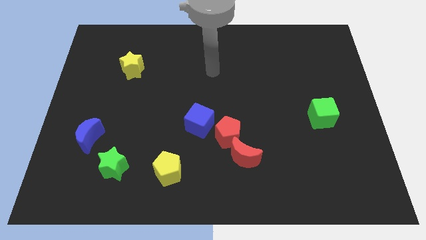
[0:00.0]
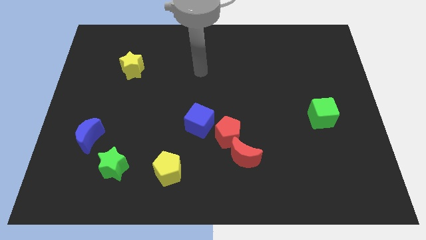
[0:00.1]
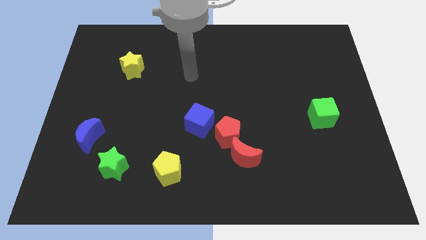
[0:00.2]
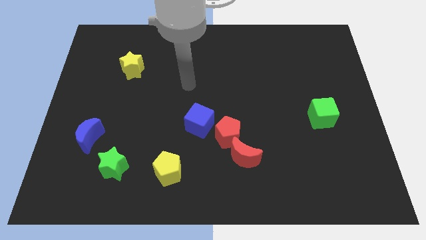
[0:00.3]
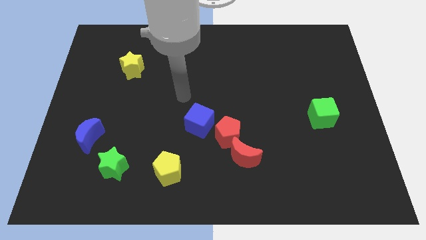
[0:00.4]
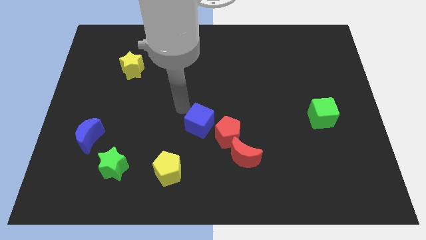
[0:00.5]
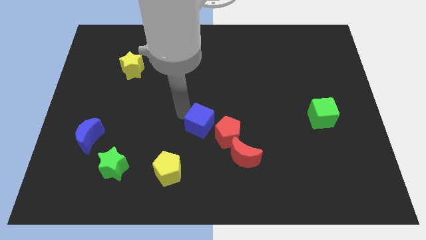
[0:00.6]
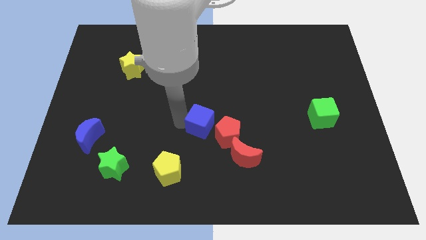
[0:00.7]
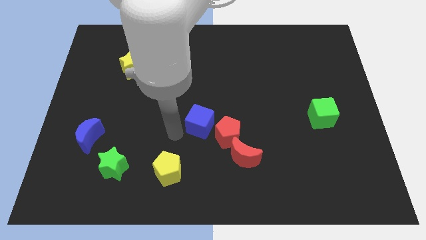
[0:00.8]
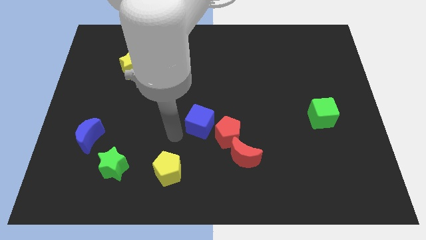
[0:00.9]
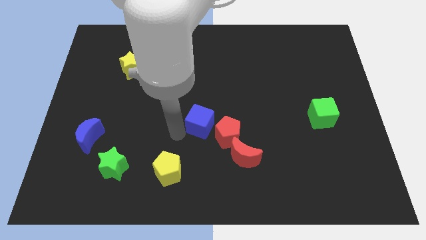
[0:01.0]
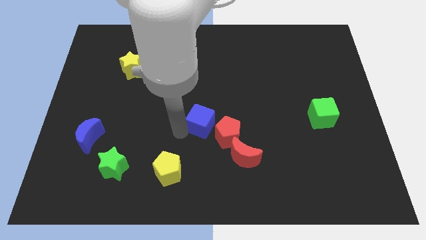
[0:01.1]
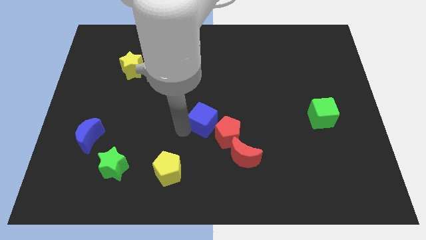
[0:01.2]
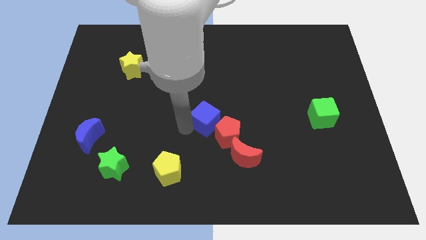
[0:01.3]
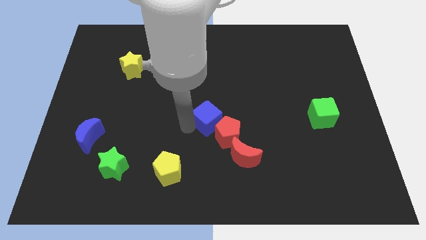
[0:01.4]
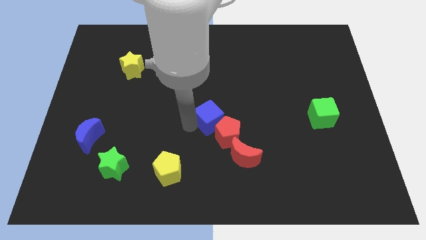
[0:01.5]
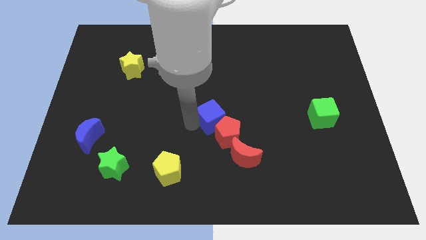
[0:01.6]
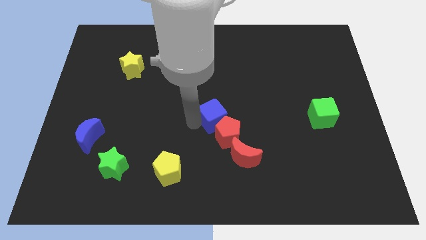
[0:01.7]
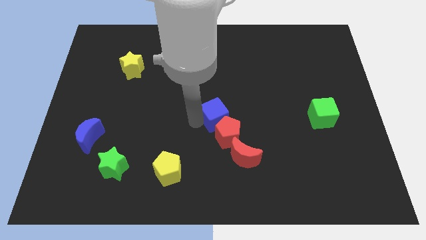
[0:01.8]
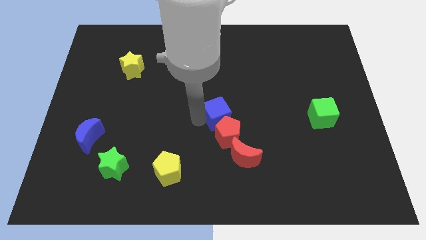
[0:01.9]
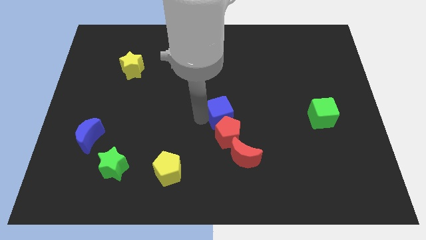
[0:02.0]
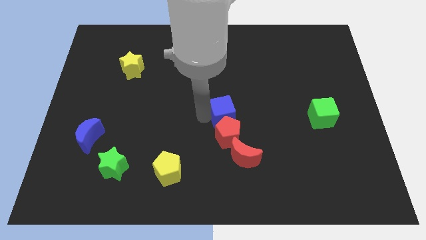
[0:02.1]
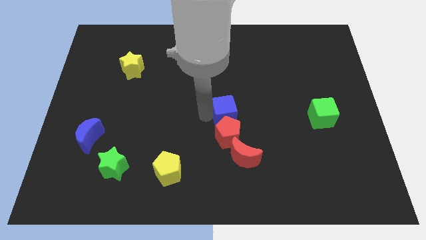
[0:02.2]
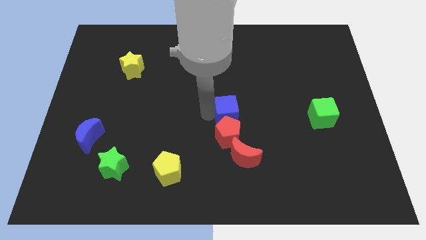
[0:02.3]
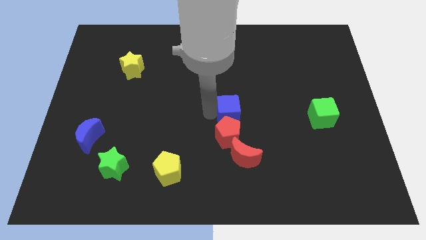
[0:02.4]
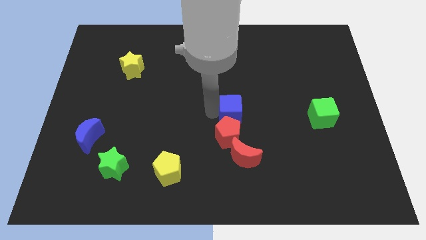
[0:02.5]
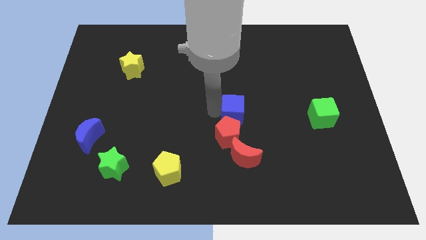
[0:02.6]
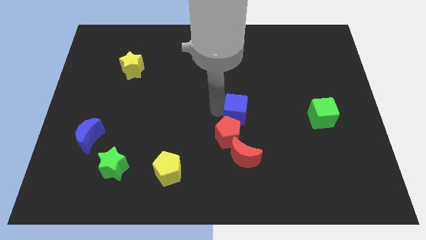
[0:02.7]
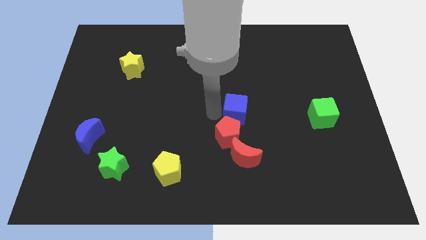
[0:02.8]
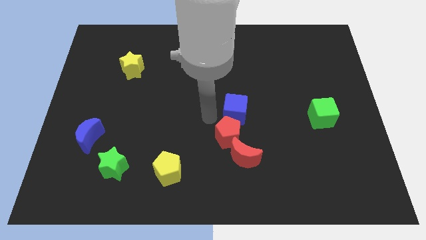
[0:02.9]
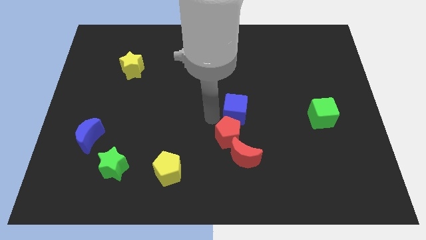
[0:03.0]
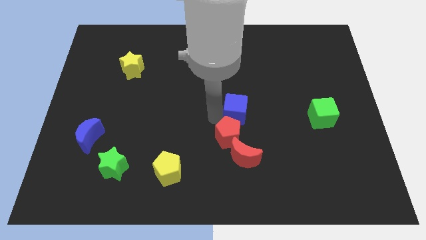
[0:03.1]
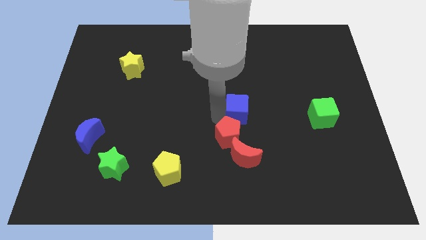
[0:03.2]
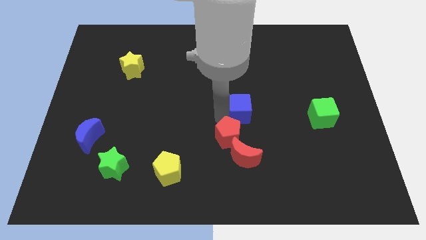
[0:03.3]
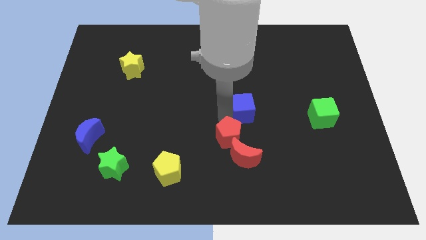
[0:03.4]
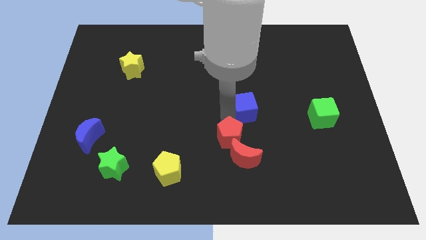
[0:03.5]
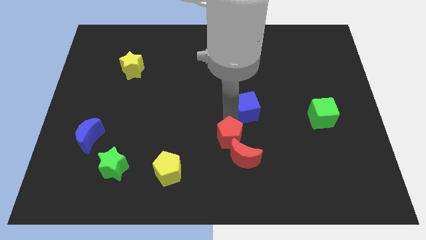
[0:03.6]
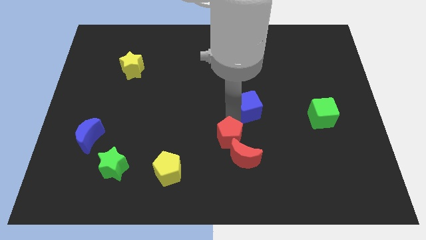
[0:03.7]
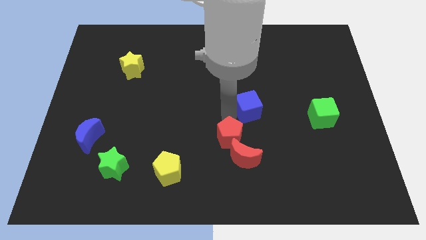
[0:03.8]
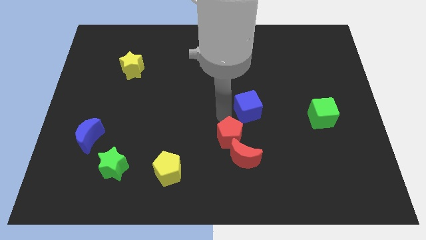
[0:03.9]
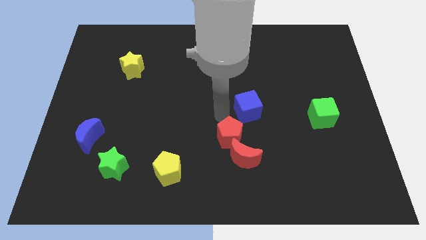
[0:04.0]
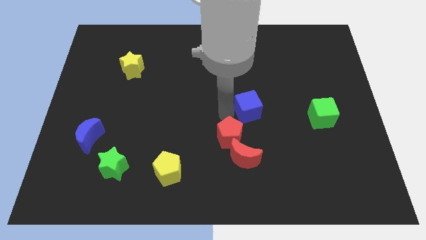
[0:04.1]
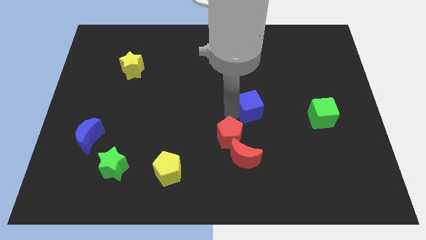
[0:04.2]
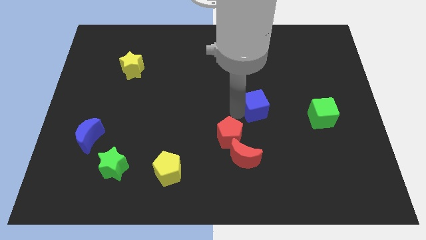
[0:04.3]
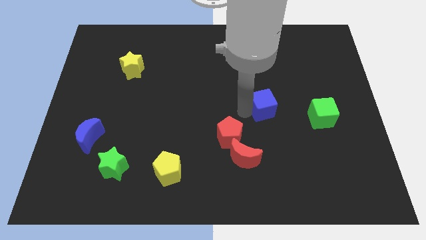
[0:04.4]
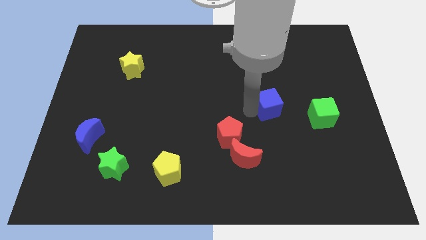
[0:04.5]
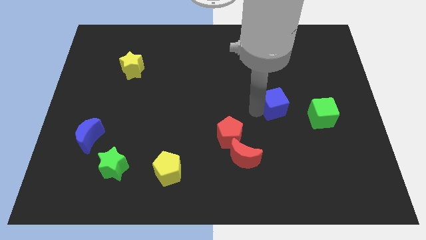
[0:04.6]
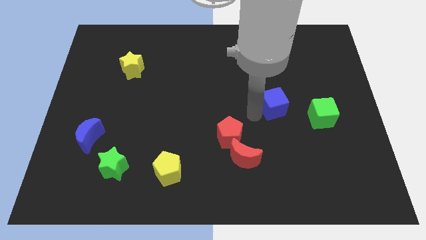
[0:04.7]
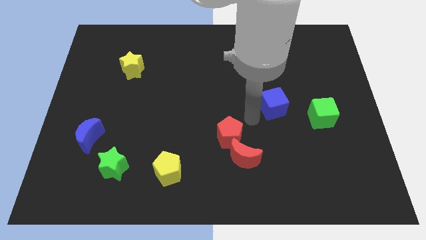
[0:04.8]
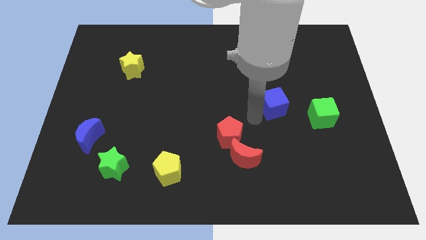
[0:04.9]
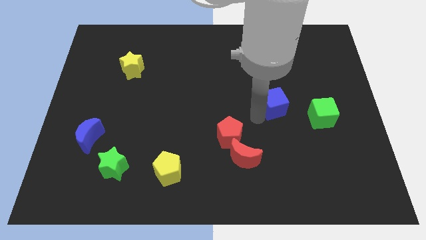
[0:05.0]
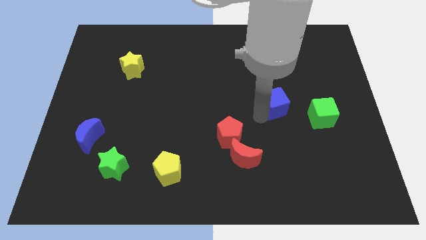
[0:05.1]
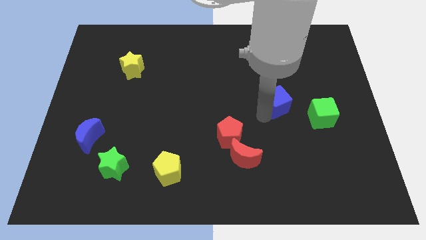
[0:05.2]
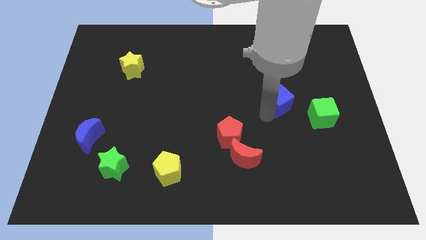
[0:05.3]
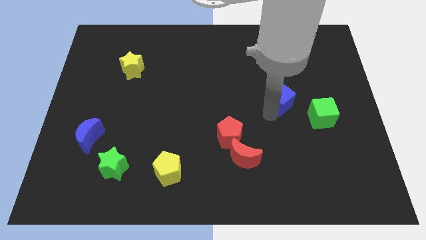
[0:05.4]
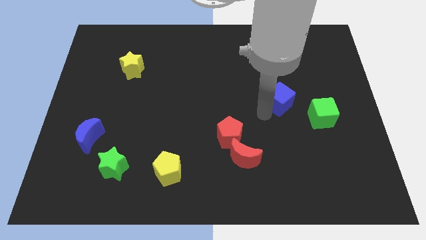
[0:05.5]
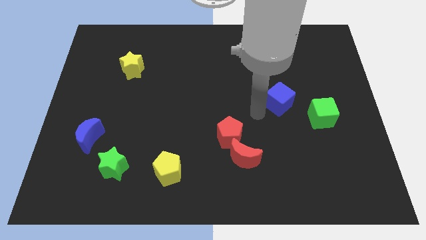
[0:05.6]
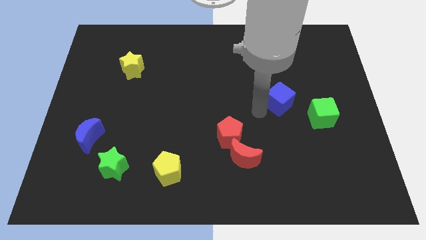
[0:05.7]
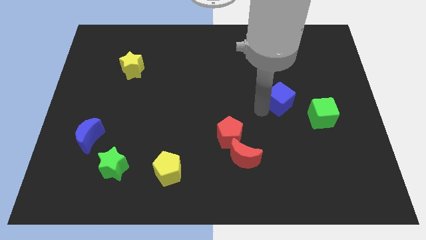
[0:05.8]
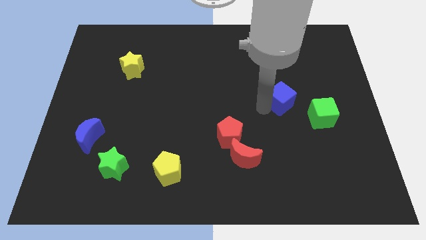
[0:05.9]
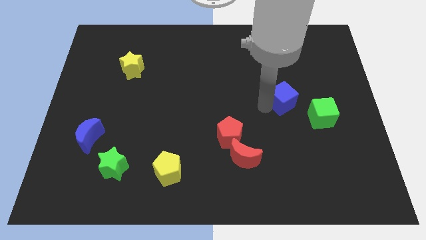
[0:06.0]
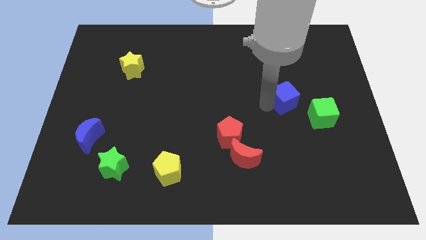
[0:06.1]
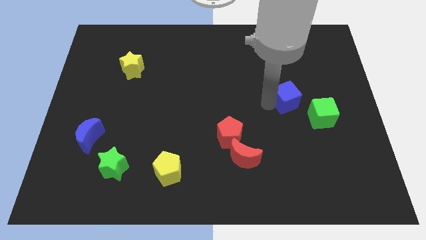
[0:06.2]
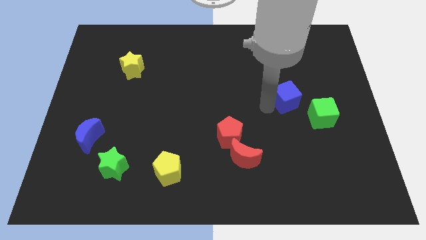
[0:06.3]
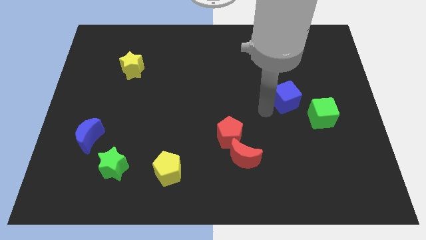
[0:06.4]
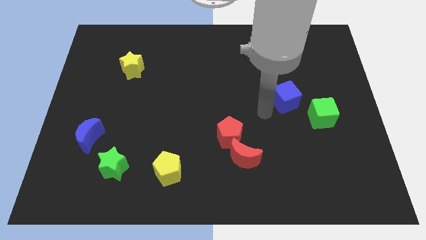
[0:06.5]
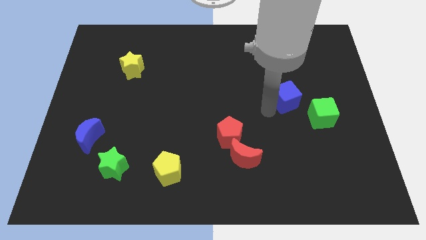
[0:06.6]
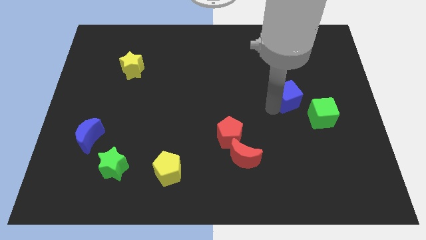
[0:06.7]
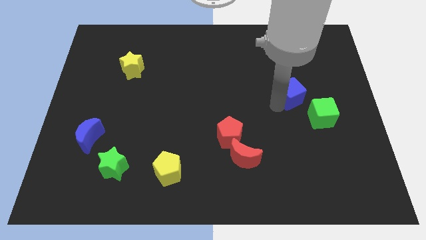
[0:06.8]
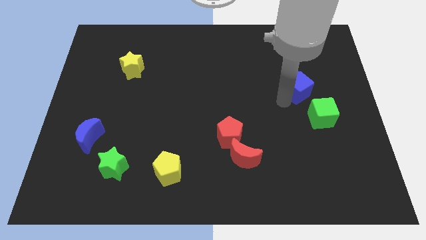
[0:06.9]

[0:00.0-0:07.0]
push the blue cube to the top side of the green cube
